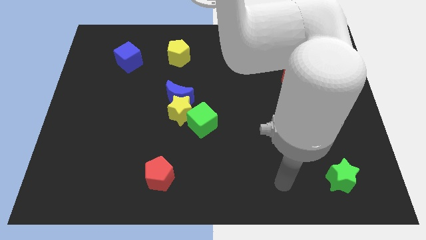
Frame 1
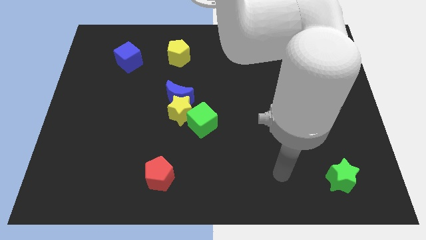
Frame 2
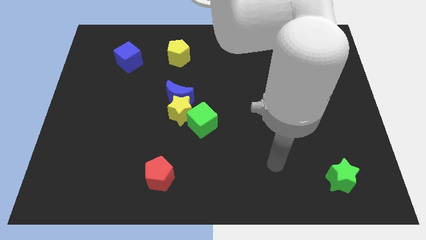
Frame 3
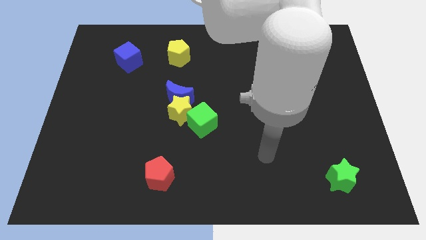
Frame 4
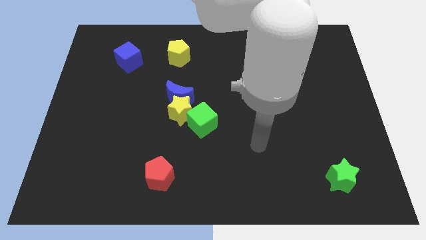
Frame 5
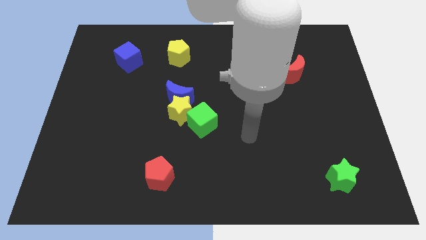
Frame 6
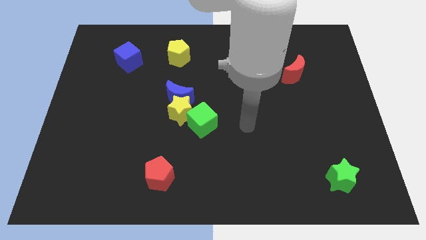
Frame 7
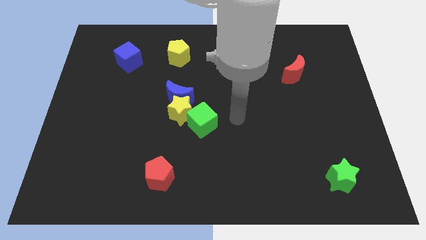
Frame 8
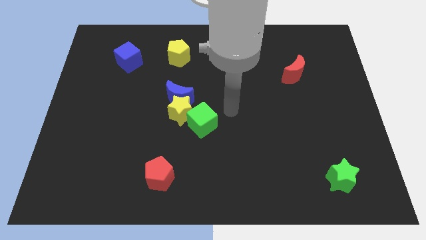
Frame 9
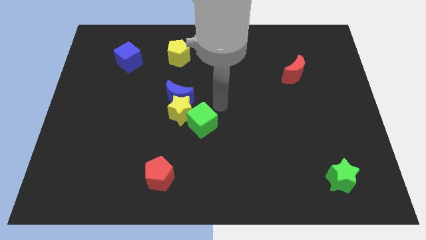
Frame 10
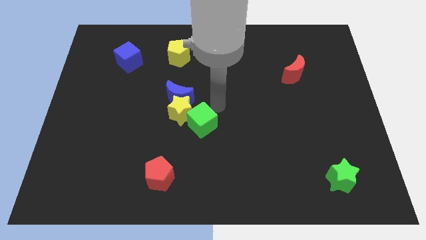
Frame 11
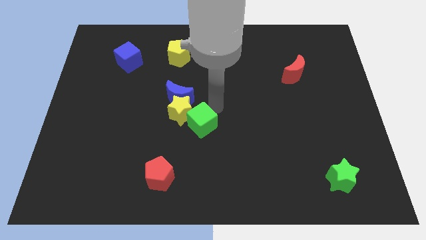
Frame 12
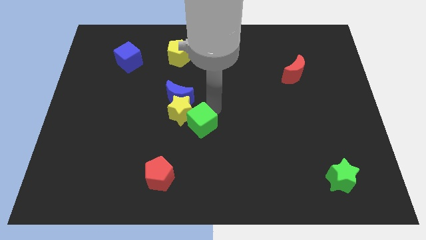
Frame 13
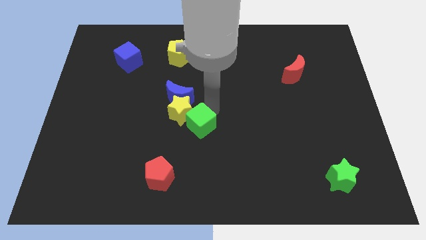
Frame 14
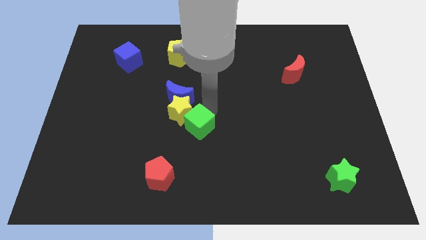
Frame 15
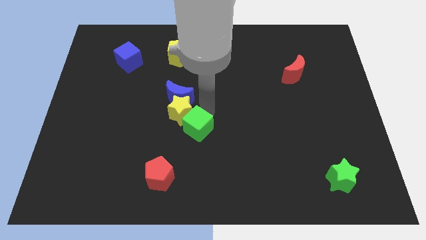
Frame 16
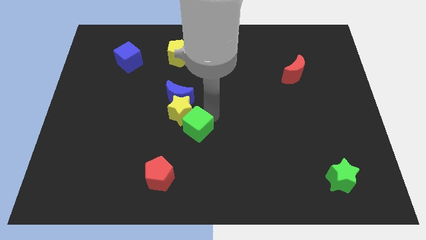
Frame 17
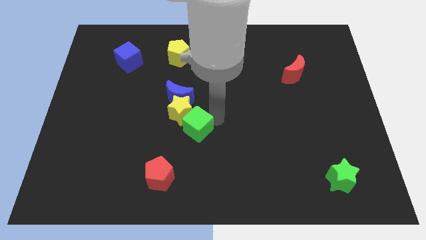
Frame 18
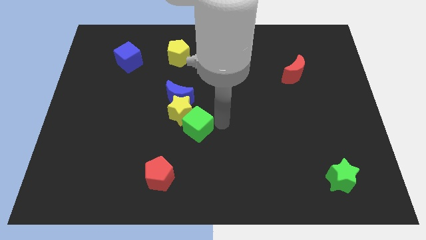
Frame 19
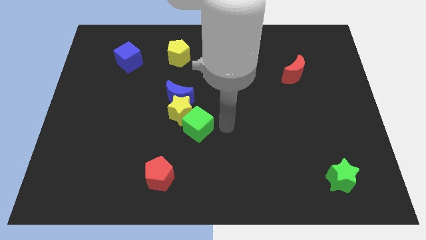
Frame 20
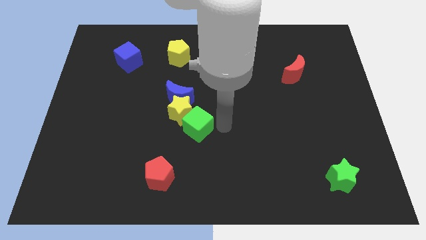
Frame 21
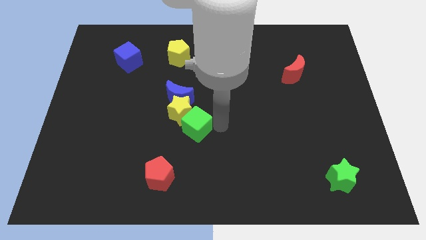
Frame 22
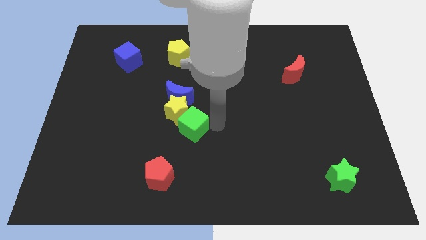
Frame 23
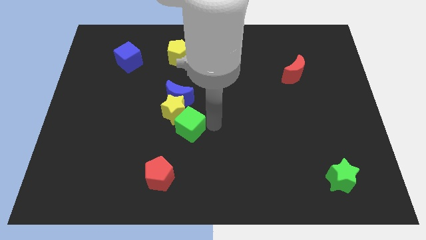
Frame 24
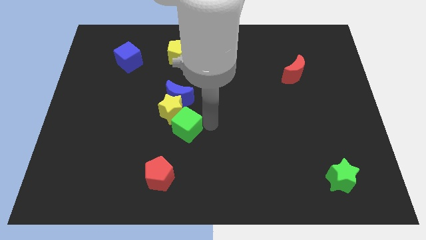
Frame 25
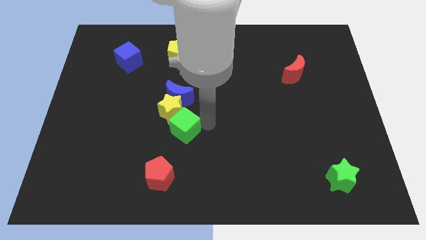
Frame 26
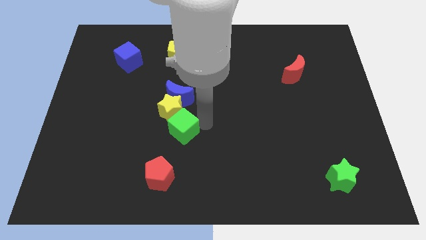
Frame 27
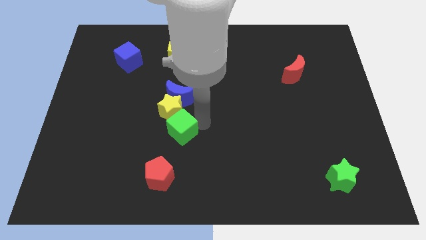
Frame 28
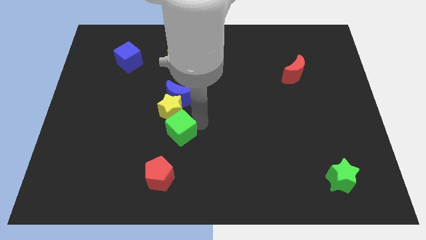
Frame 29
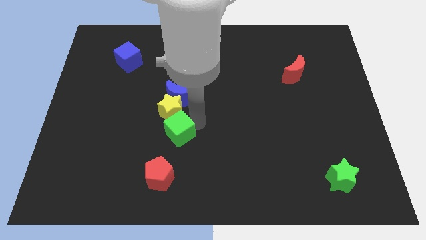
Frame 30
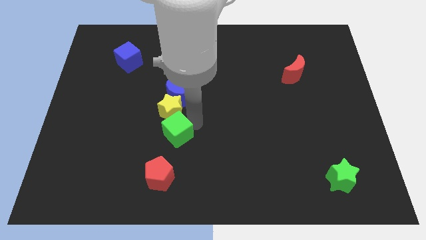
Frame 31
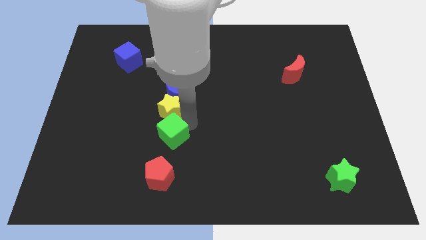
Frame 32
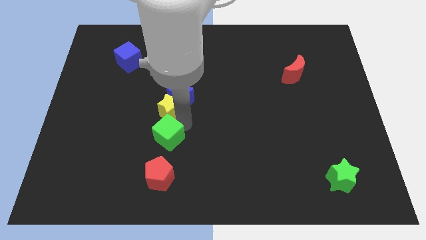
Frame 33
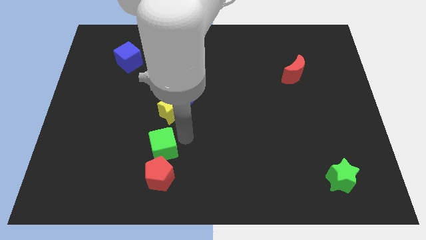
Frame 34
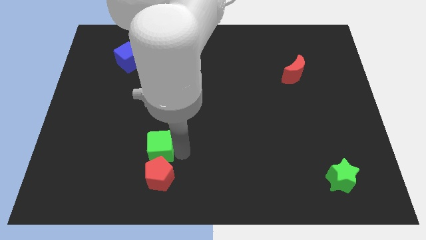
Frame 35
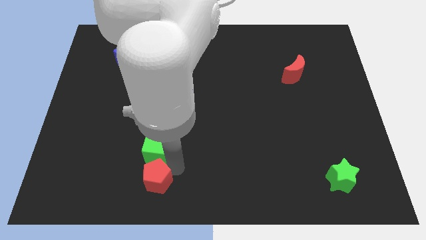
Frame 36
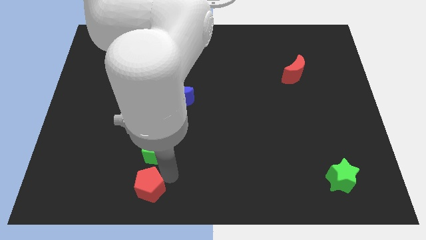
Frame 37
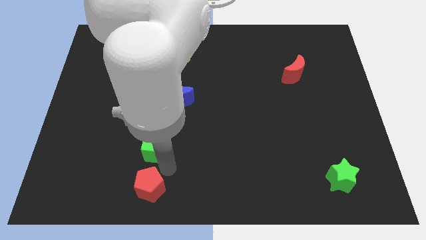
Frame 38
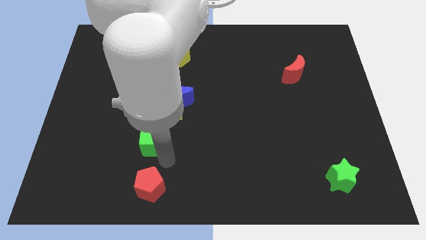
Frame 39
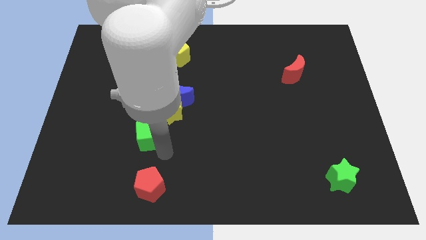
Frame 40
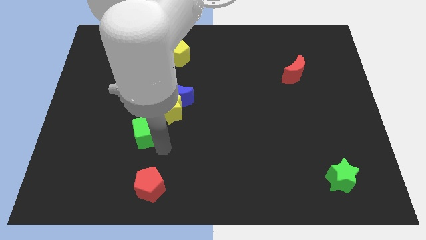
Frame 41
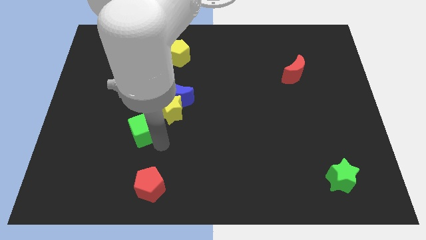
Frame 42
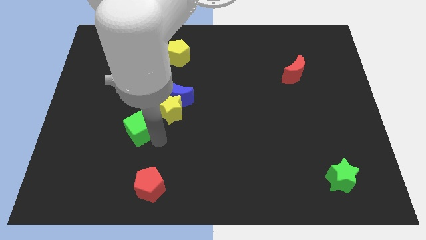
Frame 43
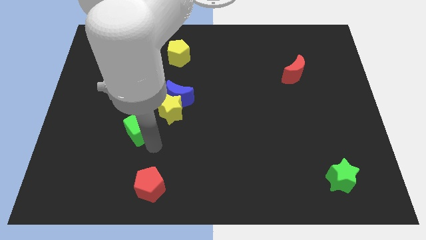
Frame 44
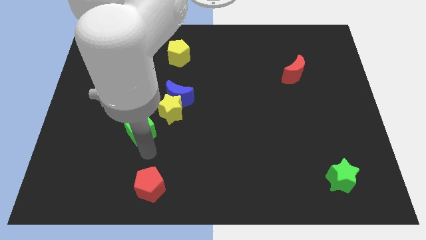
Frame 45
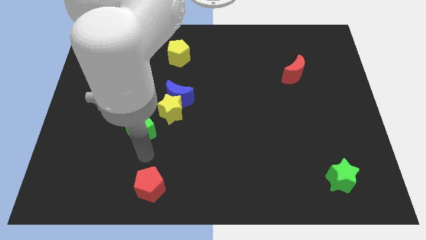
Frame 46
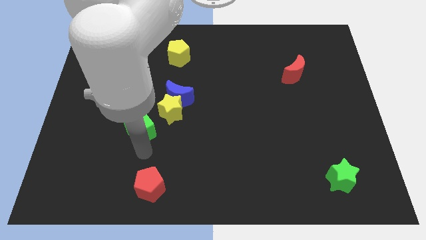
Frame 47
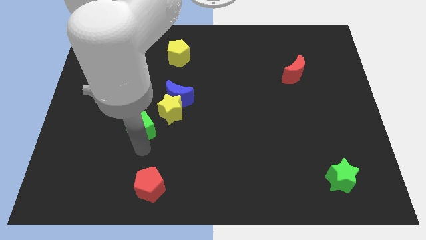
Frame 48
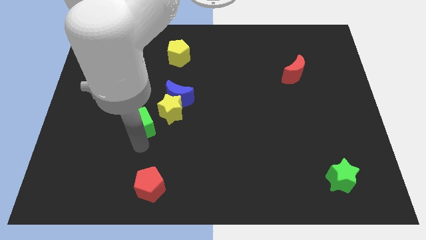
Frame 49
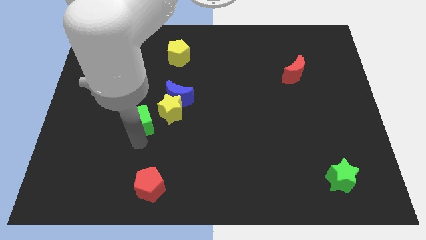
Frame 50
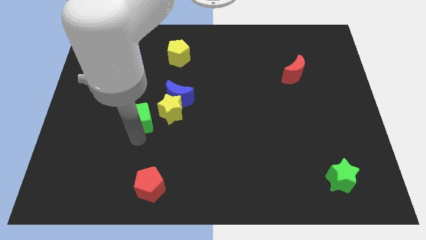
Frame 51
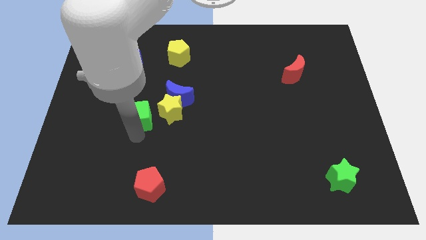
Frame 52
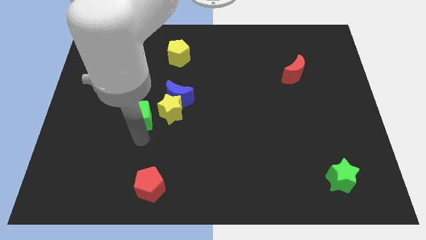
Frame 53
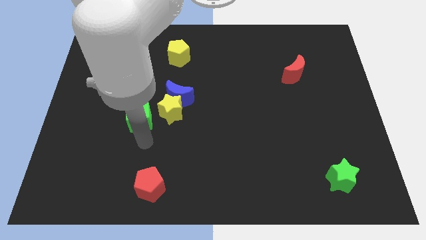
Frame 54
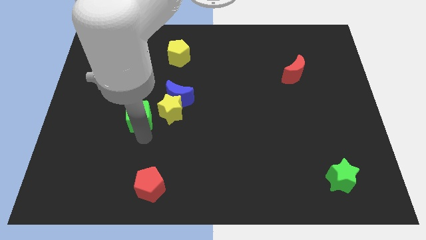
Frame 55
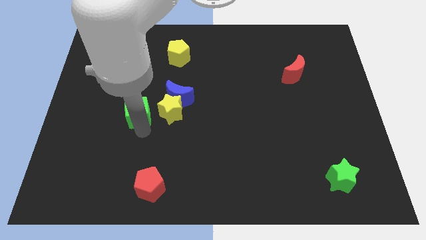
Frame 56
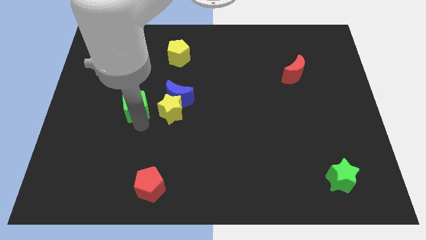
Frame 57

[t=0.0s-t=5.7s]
slide the green cube to the left side of the blue moon

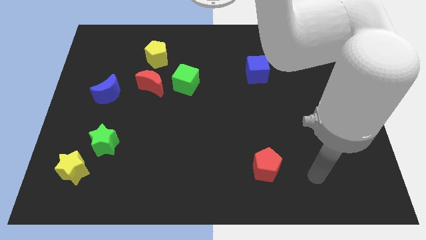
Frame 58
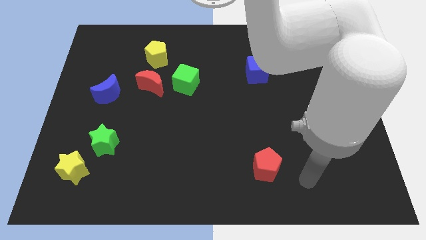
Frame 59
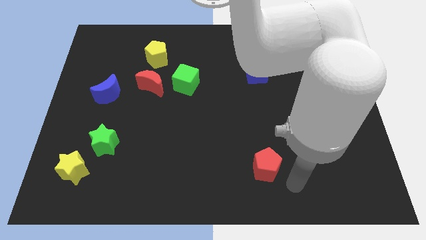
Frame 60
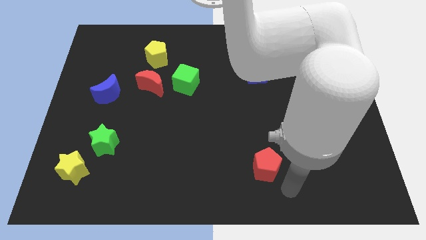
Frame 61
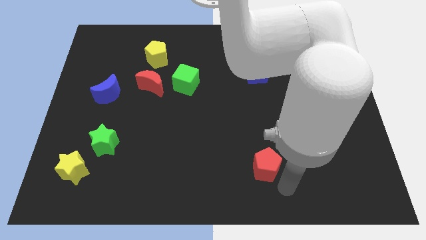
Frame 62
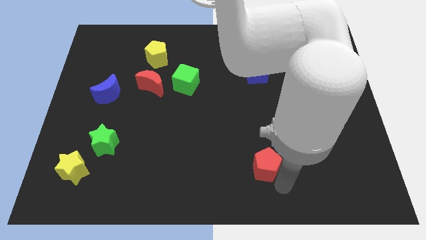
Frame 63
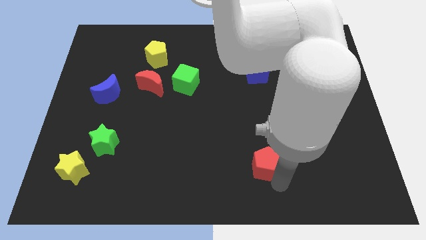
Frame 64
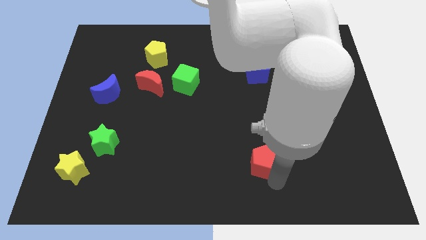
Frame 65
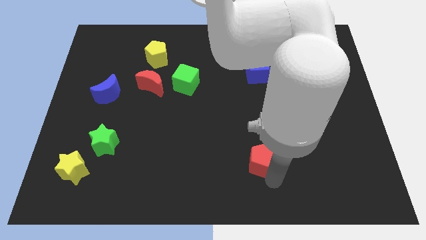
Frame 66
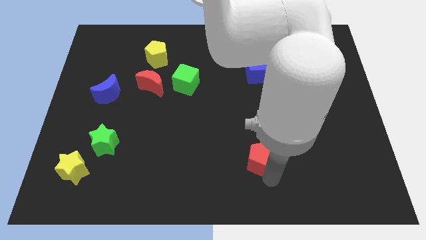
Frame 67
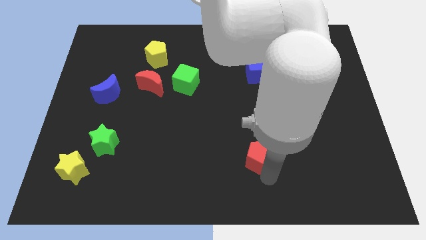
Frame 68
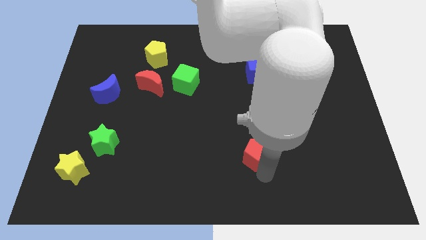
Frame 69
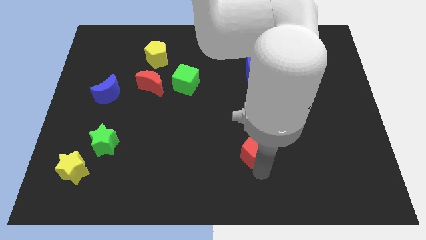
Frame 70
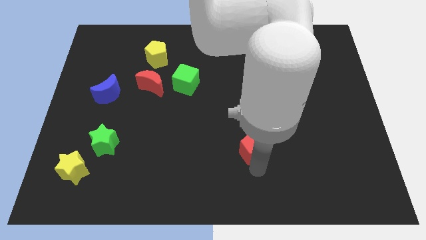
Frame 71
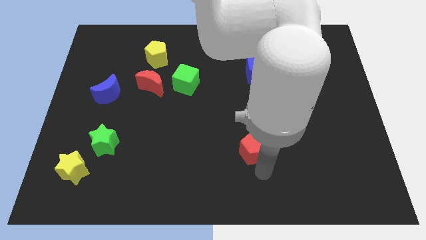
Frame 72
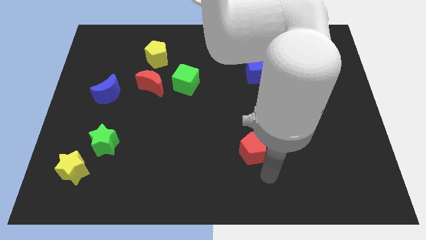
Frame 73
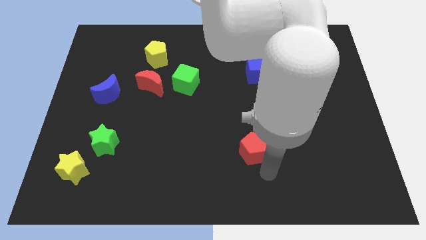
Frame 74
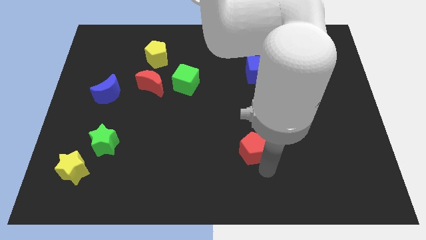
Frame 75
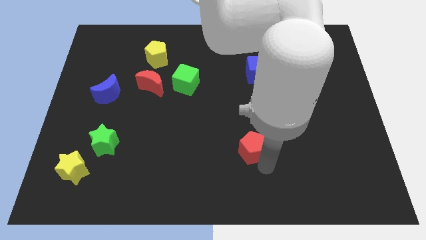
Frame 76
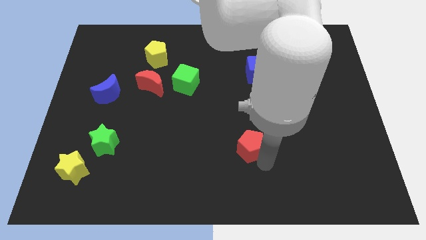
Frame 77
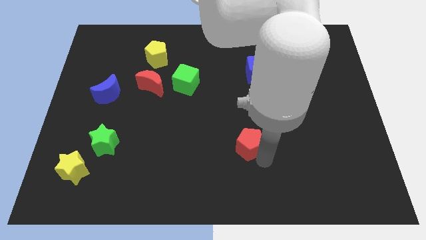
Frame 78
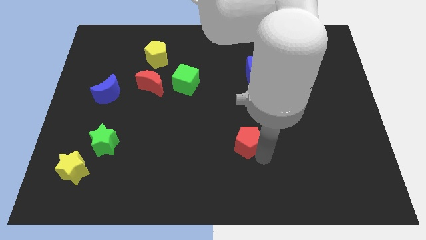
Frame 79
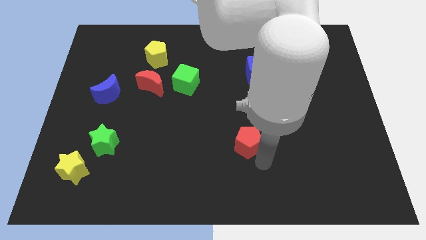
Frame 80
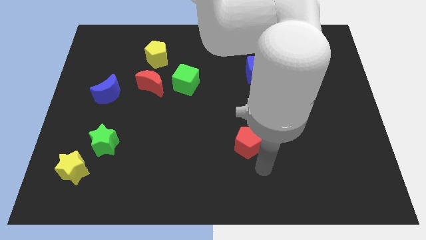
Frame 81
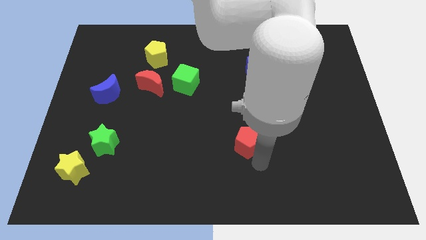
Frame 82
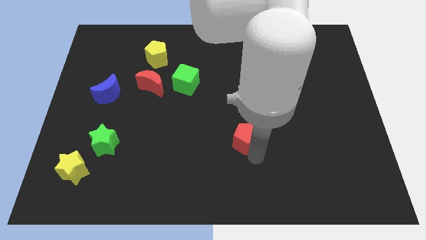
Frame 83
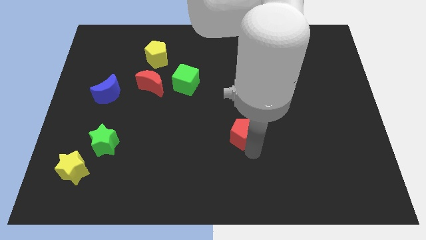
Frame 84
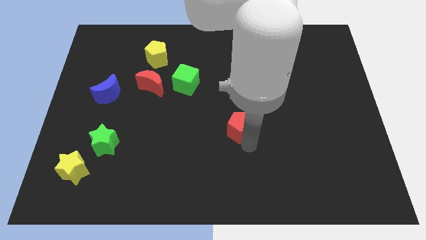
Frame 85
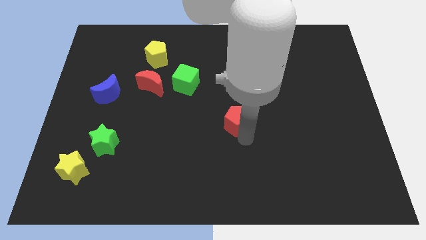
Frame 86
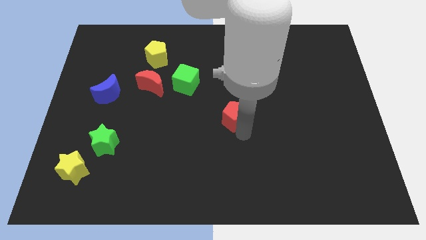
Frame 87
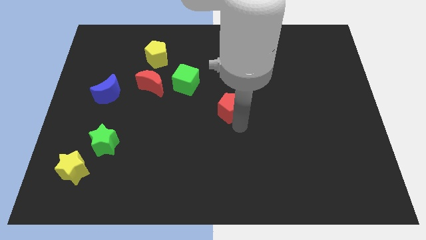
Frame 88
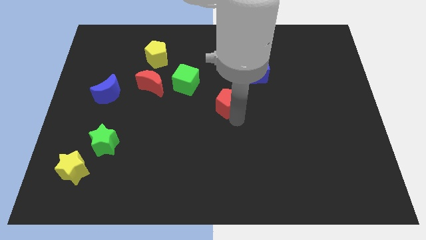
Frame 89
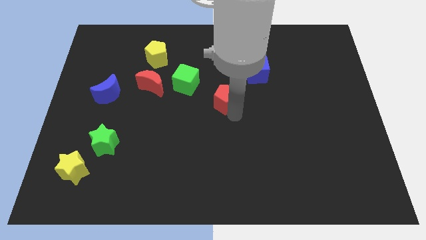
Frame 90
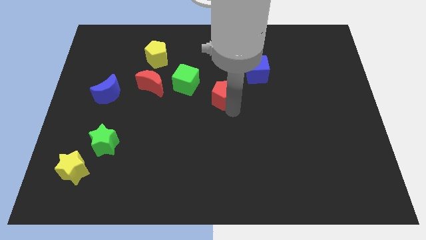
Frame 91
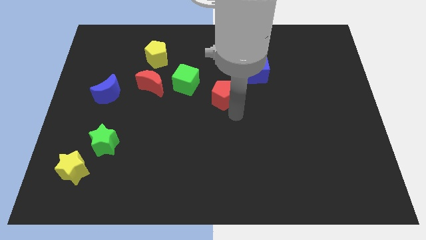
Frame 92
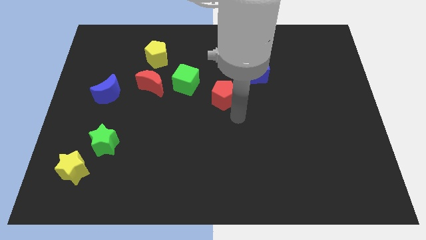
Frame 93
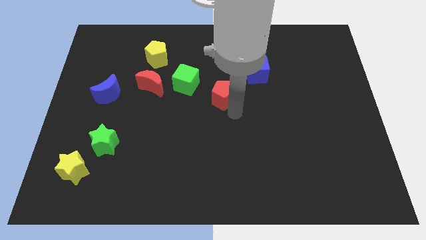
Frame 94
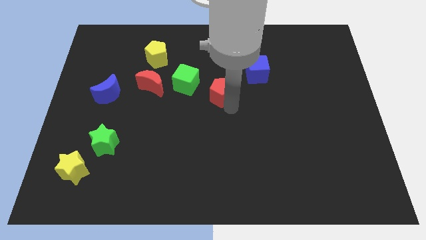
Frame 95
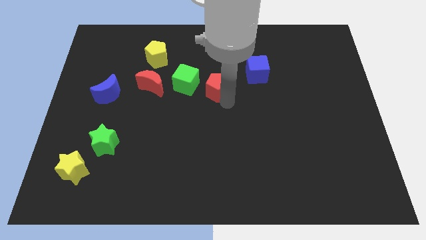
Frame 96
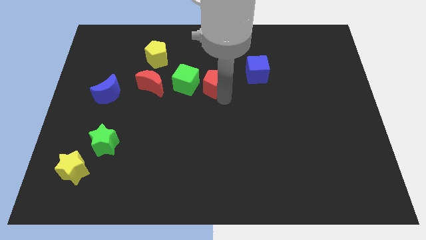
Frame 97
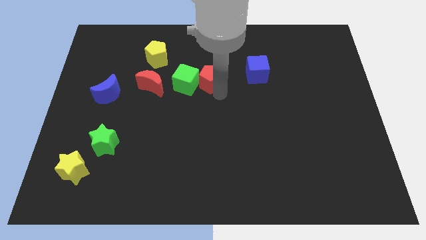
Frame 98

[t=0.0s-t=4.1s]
push the red pentagon to the top right of the green cube
